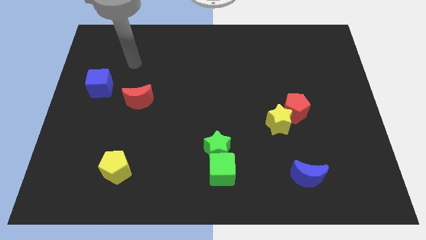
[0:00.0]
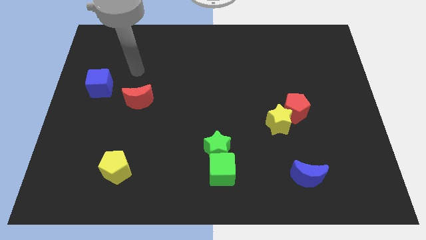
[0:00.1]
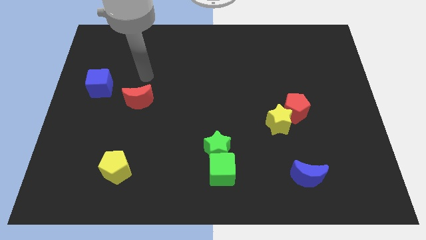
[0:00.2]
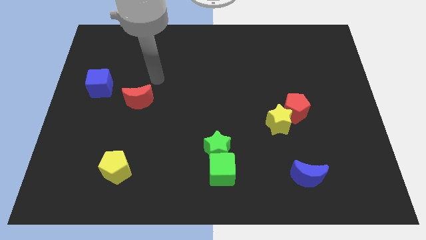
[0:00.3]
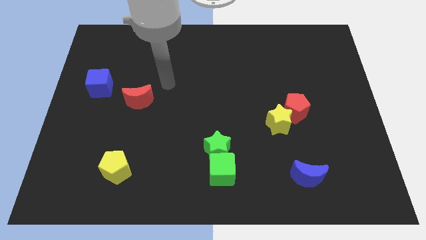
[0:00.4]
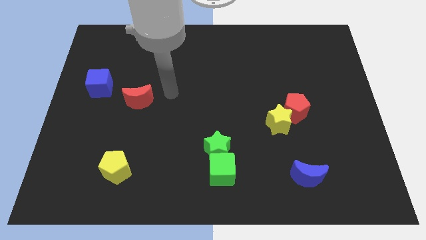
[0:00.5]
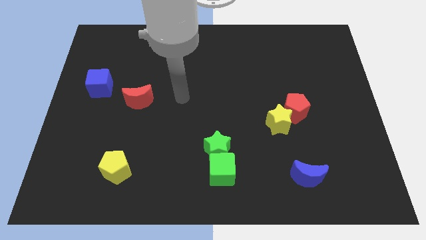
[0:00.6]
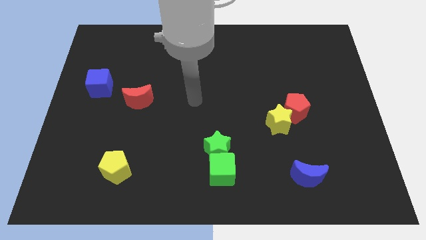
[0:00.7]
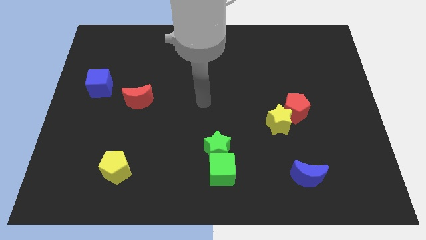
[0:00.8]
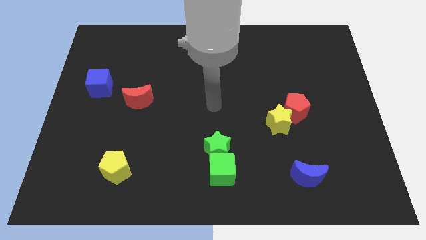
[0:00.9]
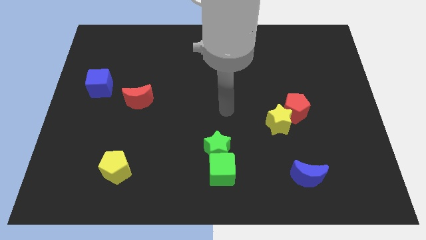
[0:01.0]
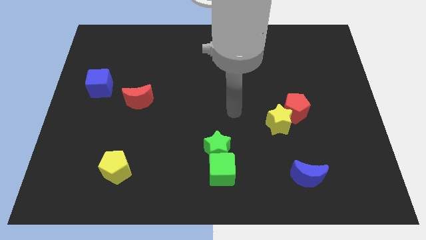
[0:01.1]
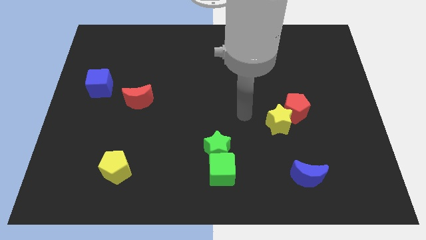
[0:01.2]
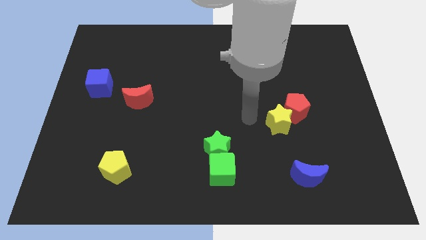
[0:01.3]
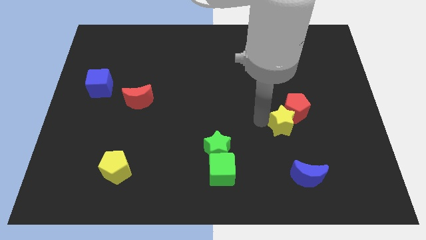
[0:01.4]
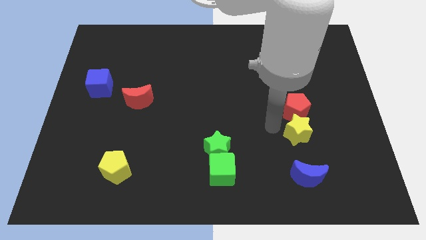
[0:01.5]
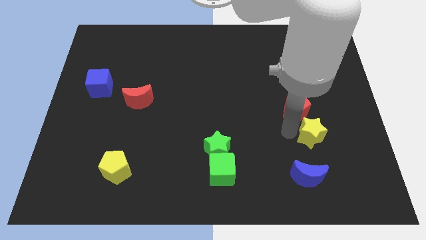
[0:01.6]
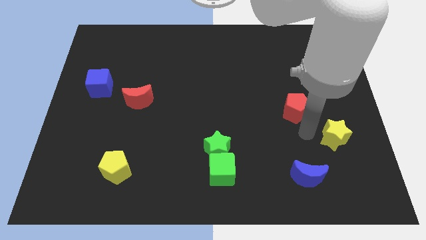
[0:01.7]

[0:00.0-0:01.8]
move the red pentagon away from the yellow star

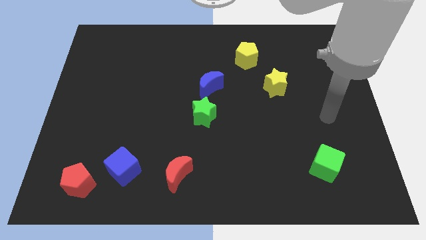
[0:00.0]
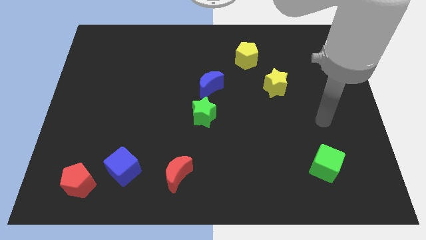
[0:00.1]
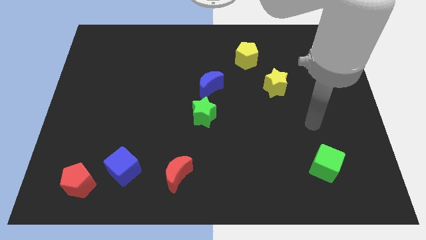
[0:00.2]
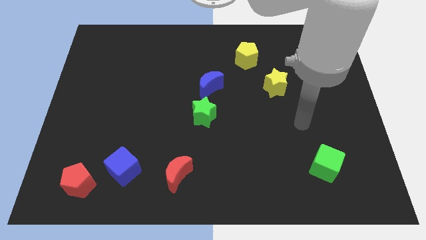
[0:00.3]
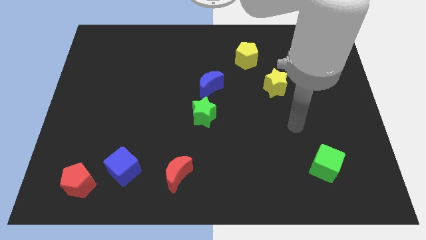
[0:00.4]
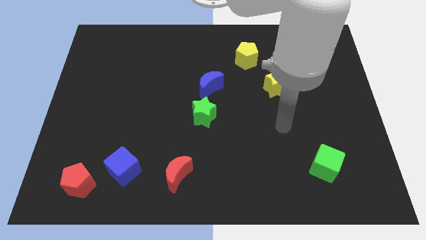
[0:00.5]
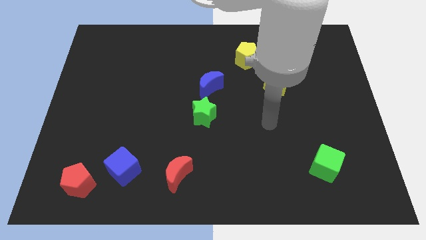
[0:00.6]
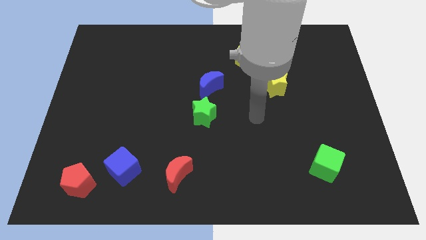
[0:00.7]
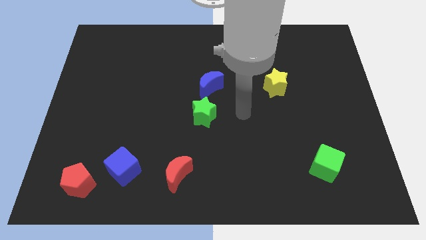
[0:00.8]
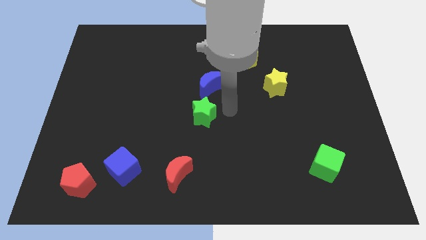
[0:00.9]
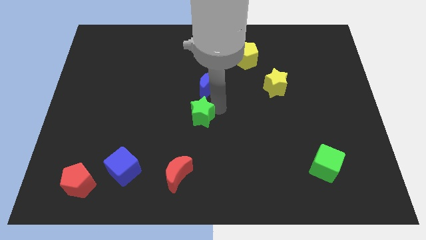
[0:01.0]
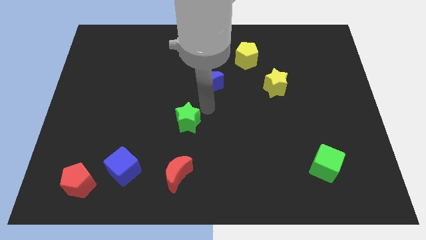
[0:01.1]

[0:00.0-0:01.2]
separate the blue moon from the green star

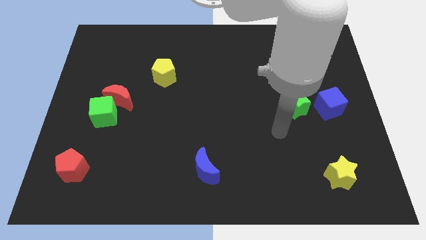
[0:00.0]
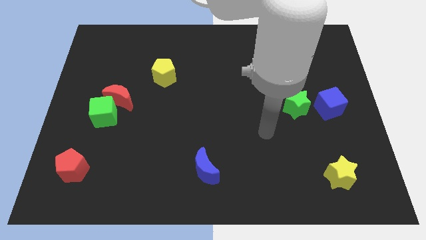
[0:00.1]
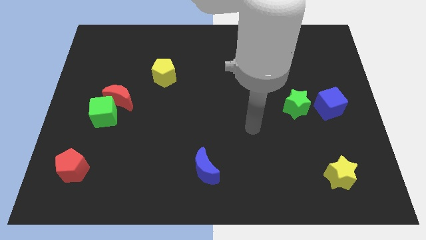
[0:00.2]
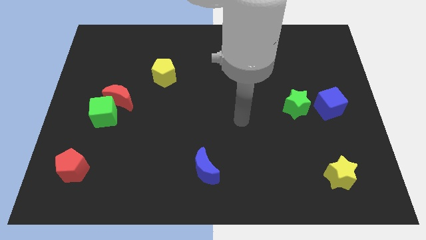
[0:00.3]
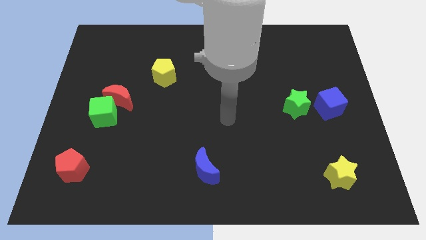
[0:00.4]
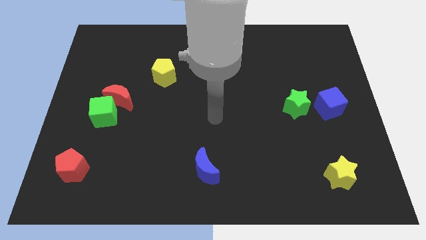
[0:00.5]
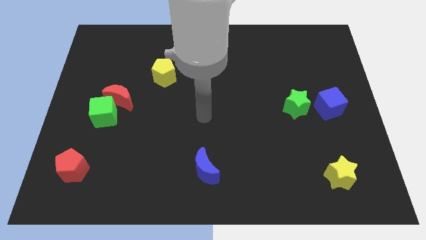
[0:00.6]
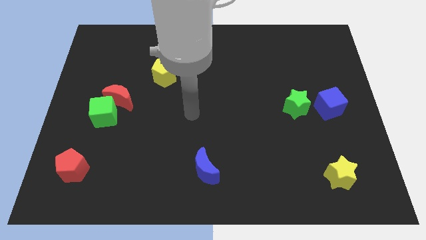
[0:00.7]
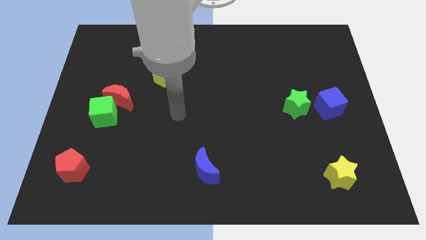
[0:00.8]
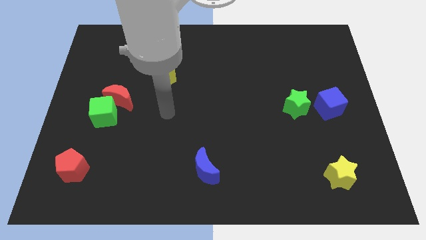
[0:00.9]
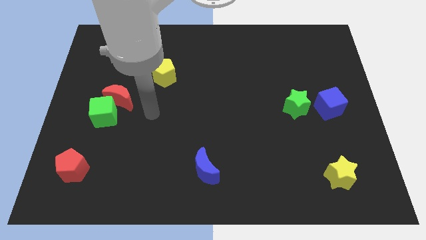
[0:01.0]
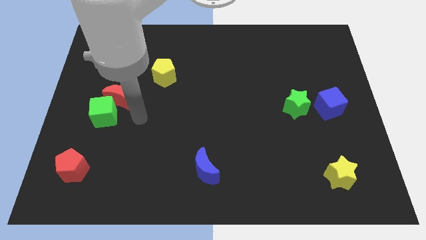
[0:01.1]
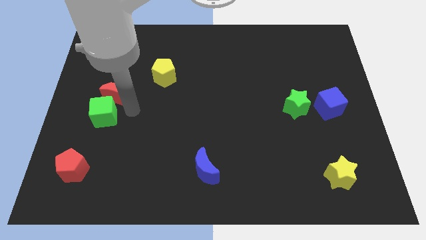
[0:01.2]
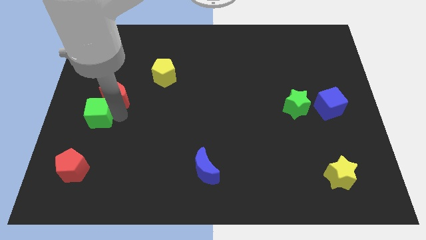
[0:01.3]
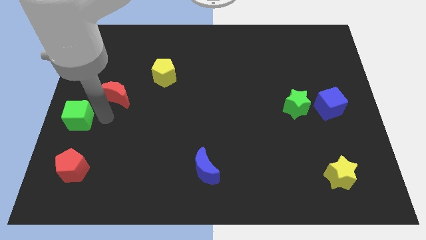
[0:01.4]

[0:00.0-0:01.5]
pull the red moon apart from the green cube

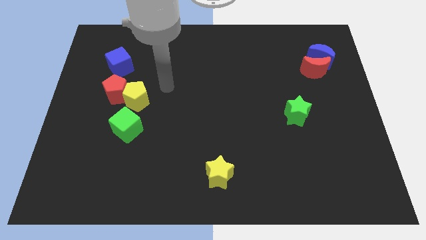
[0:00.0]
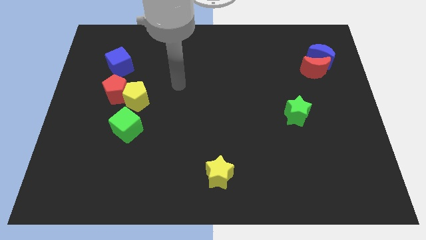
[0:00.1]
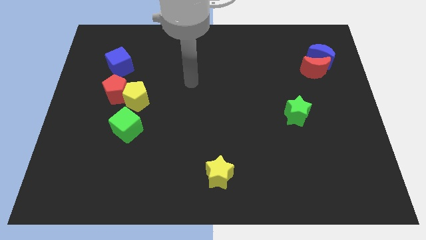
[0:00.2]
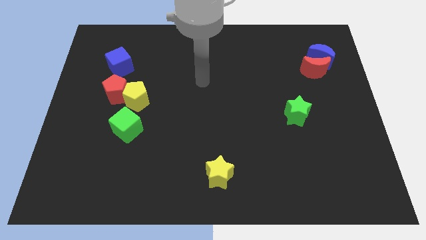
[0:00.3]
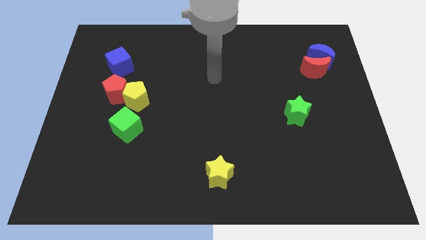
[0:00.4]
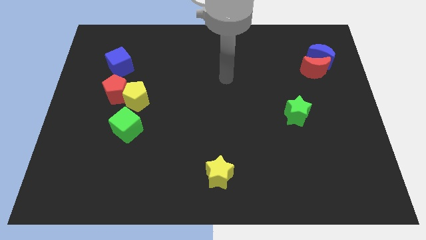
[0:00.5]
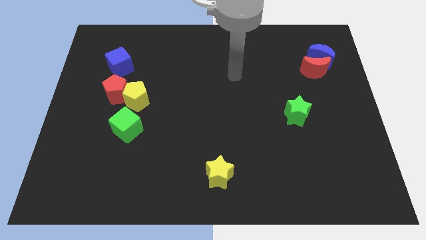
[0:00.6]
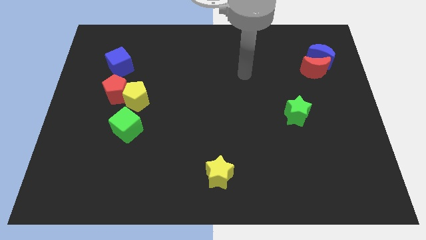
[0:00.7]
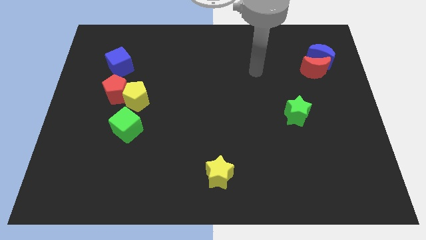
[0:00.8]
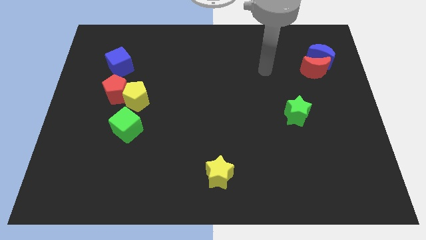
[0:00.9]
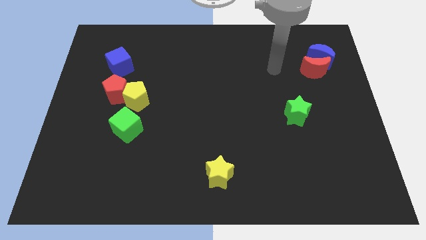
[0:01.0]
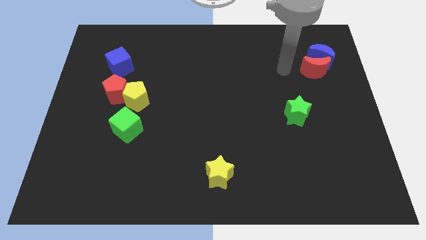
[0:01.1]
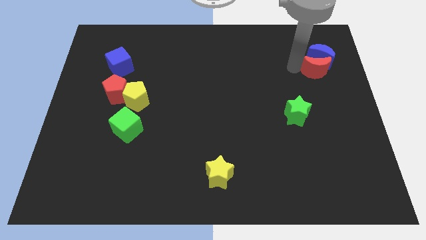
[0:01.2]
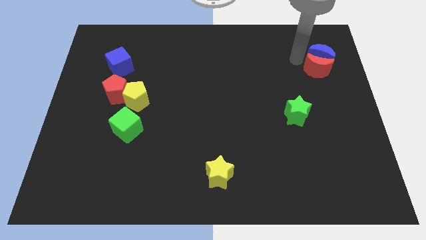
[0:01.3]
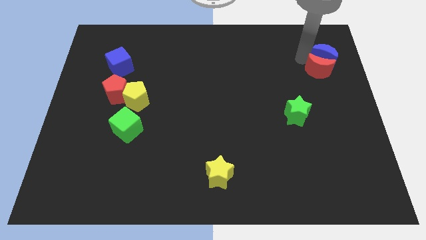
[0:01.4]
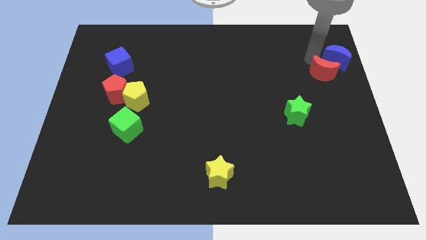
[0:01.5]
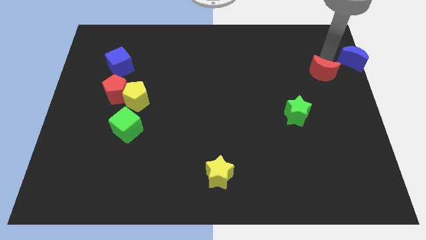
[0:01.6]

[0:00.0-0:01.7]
pull the red moon apart from the blue moon

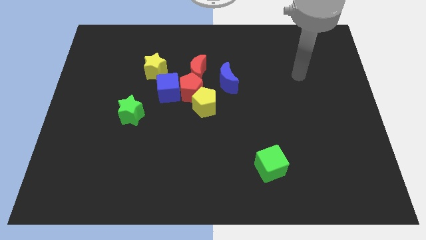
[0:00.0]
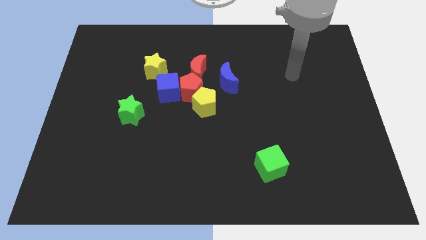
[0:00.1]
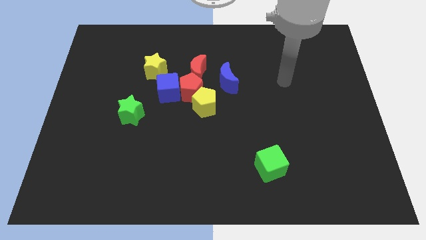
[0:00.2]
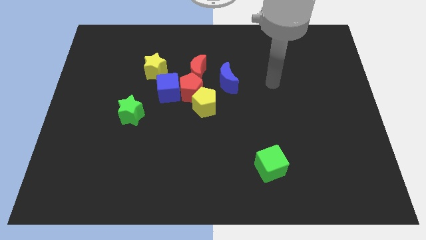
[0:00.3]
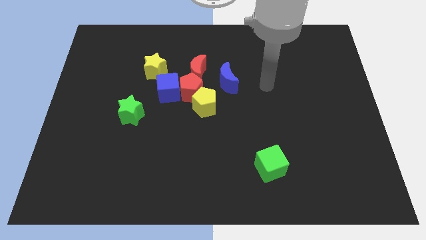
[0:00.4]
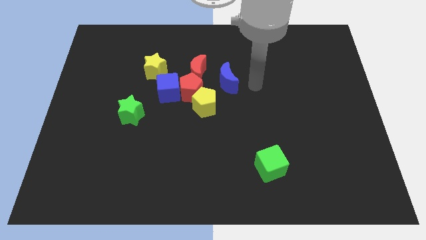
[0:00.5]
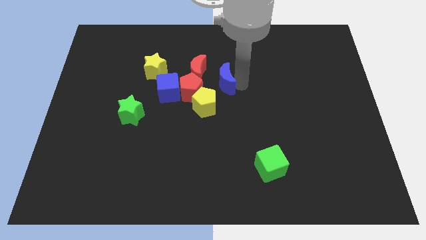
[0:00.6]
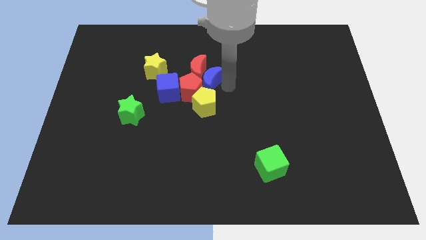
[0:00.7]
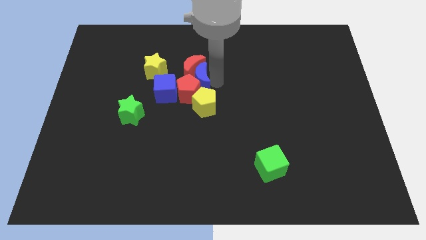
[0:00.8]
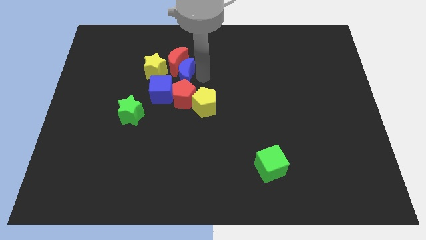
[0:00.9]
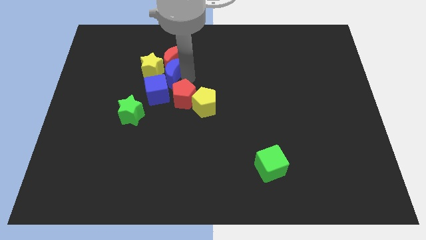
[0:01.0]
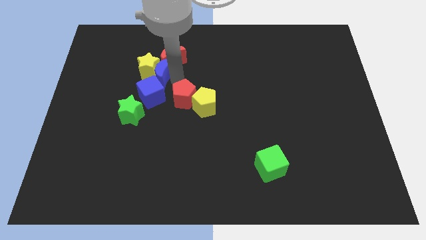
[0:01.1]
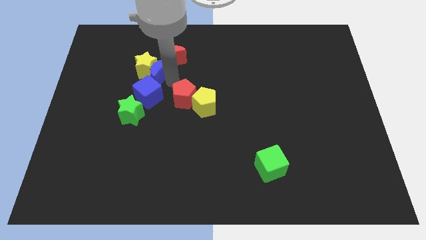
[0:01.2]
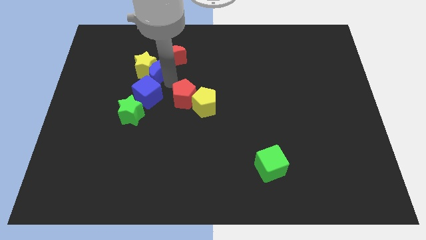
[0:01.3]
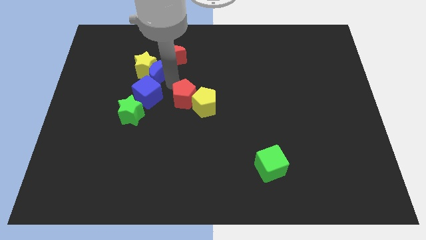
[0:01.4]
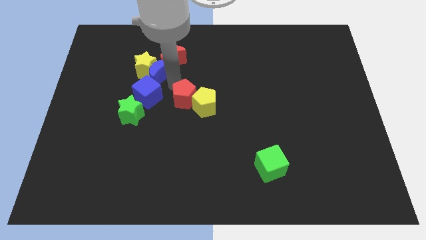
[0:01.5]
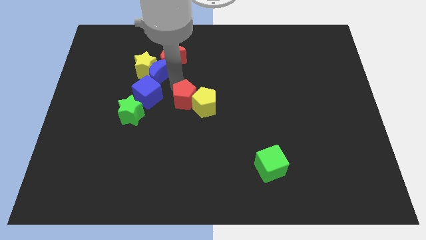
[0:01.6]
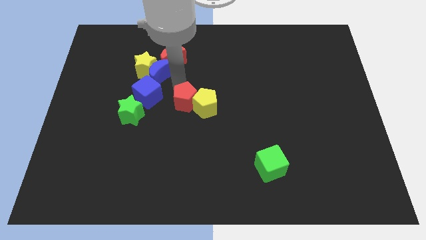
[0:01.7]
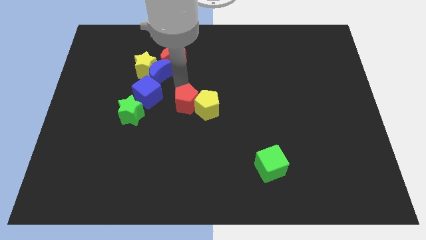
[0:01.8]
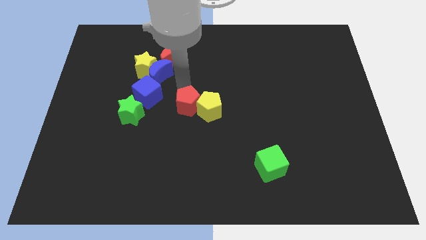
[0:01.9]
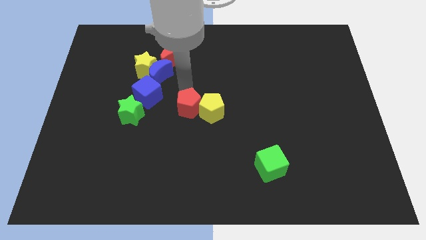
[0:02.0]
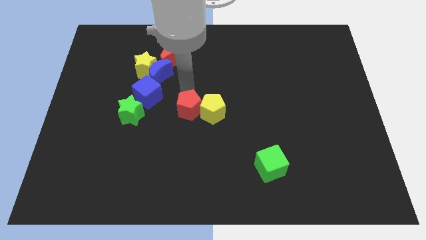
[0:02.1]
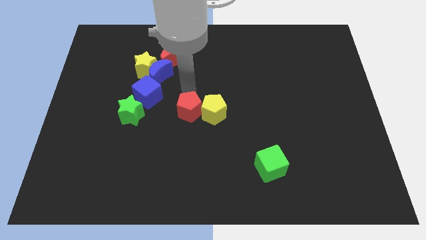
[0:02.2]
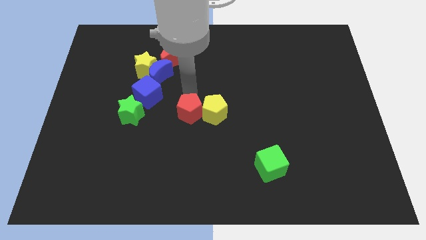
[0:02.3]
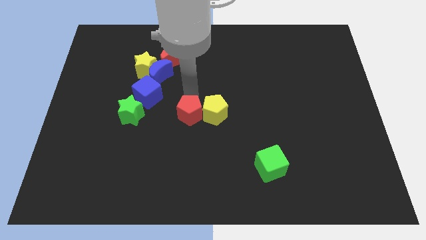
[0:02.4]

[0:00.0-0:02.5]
move the red pentagon away from the clump

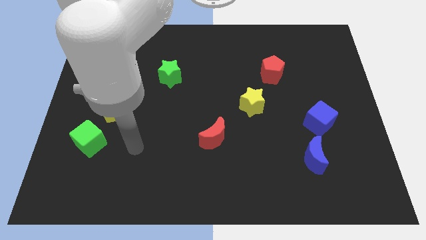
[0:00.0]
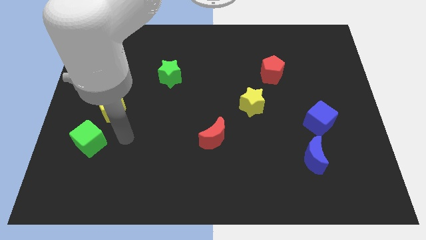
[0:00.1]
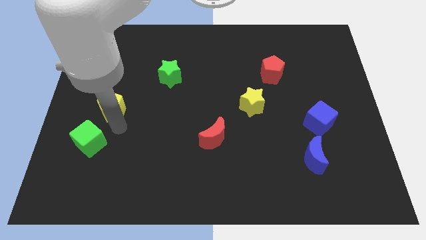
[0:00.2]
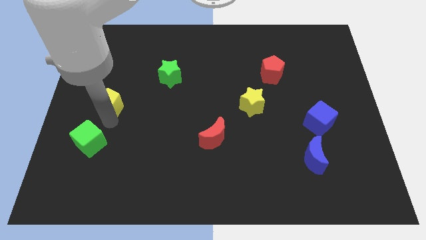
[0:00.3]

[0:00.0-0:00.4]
separate the green cube from the yellow pentagon

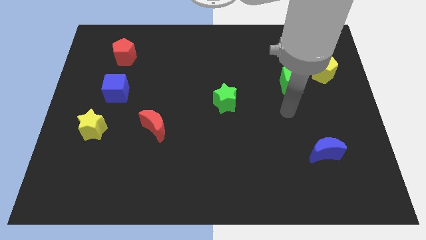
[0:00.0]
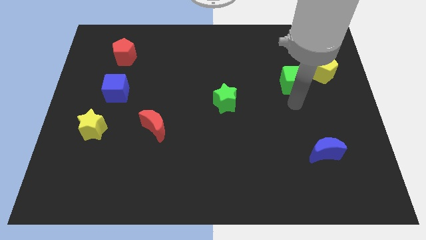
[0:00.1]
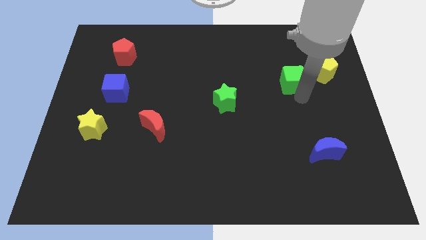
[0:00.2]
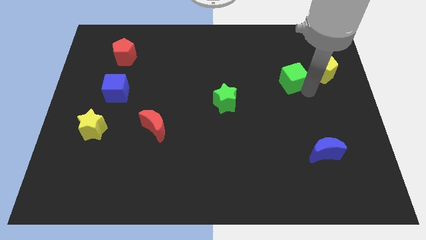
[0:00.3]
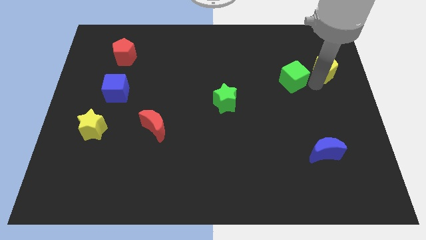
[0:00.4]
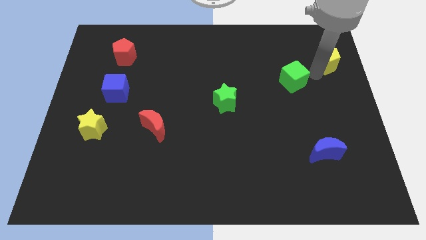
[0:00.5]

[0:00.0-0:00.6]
pull the green cube apart from the yellow pentagon
